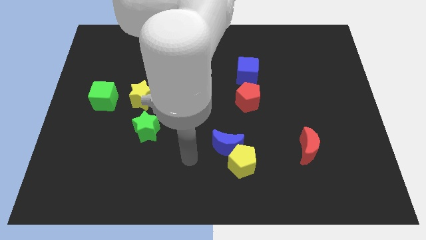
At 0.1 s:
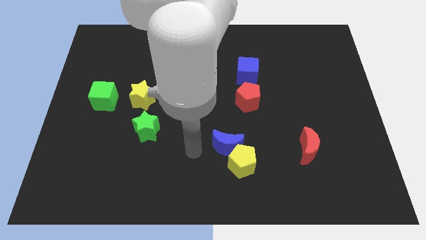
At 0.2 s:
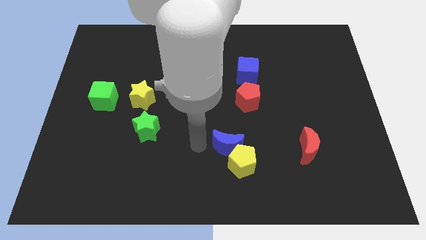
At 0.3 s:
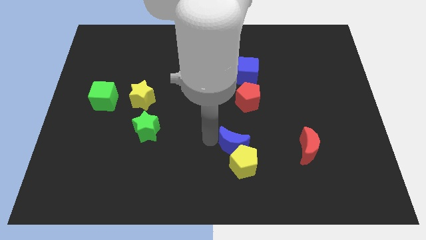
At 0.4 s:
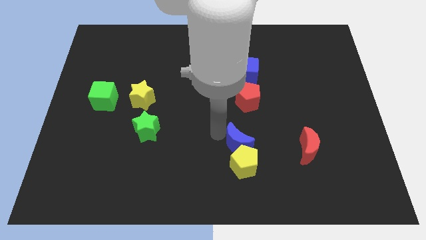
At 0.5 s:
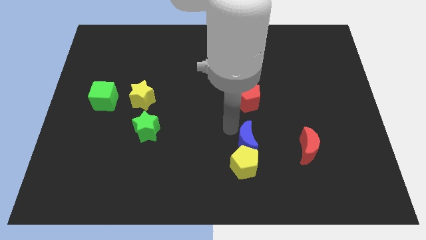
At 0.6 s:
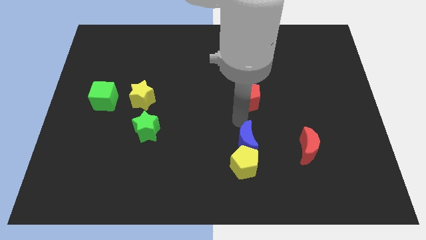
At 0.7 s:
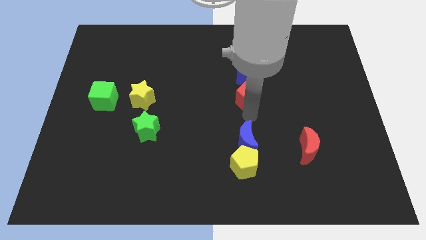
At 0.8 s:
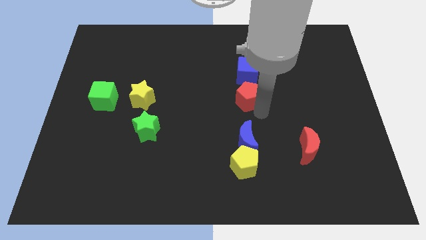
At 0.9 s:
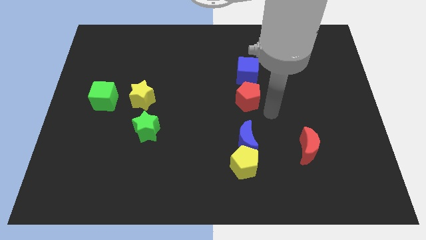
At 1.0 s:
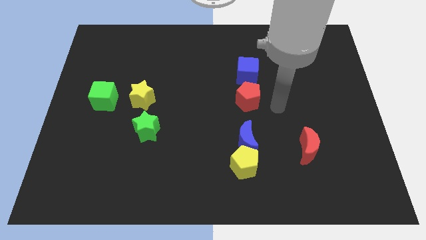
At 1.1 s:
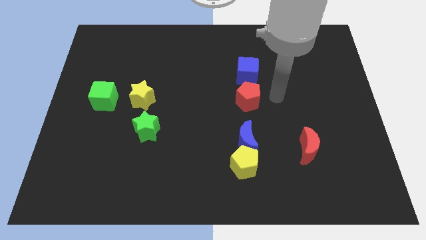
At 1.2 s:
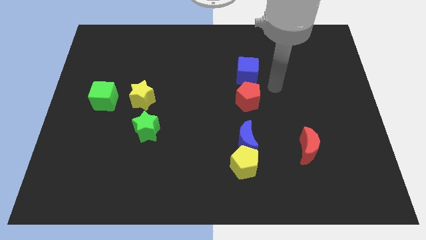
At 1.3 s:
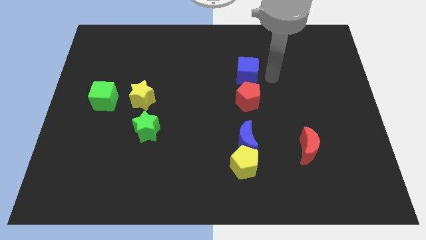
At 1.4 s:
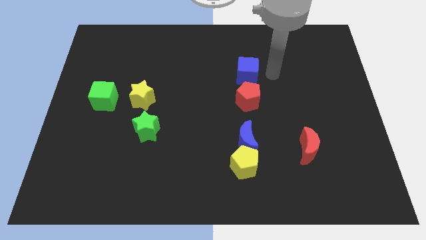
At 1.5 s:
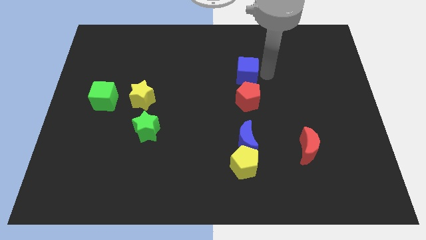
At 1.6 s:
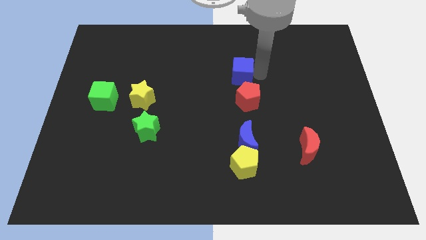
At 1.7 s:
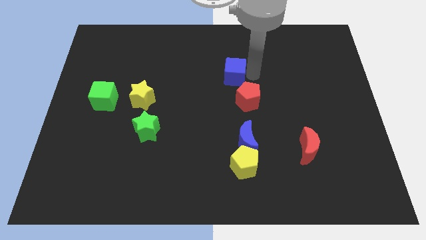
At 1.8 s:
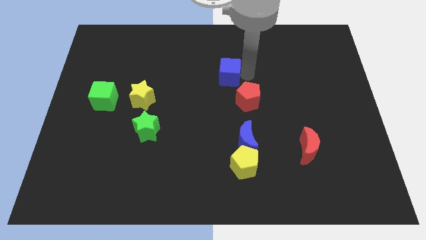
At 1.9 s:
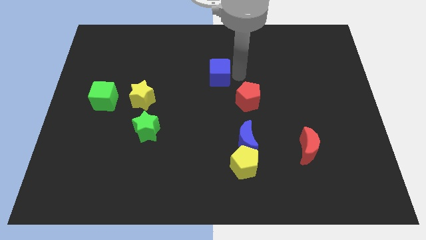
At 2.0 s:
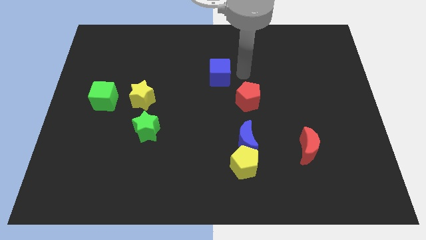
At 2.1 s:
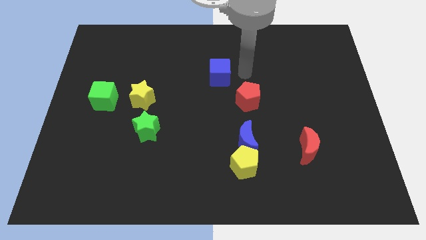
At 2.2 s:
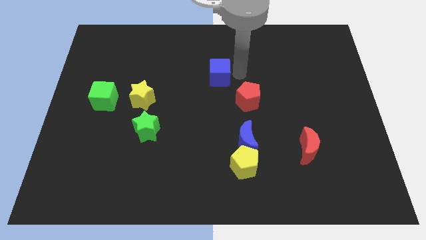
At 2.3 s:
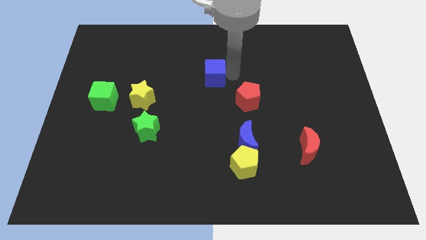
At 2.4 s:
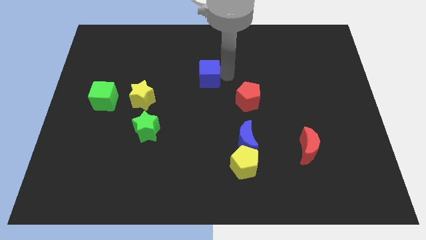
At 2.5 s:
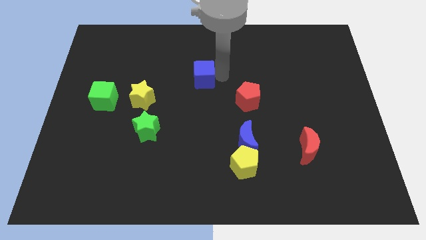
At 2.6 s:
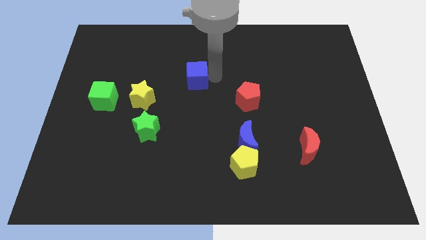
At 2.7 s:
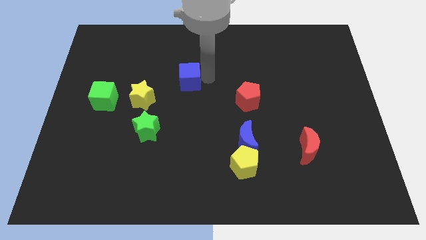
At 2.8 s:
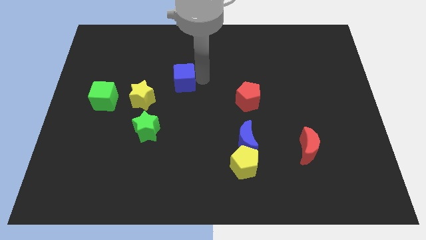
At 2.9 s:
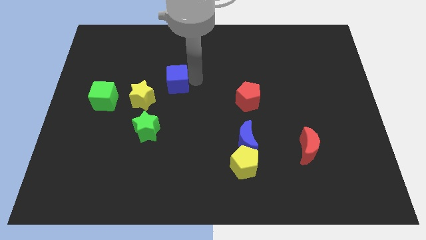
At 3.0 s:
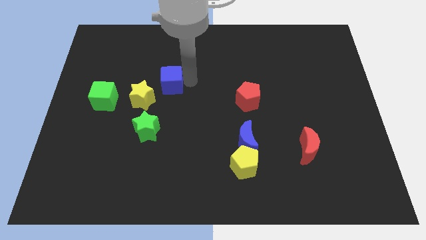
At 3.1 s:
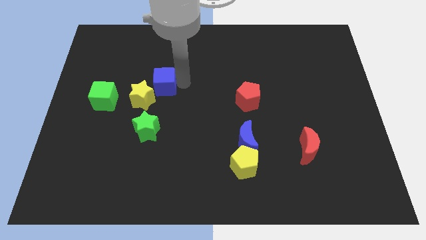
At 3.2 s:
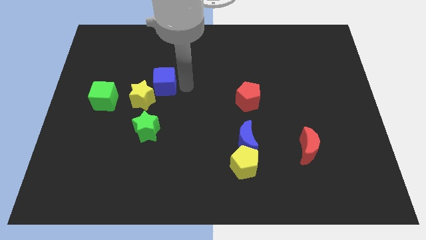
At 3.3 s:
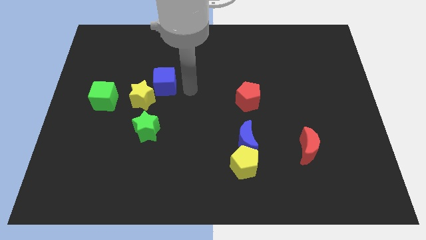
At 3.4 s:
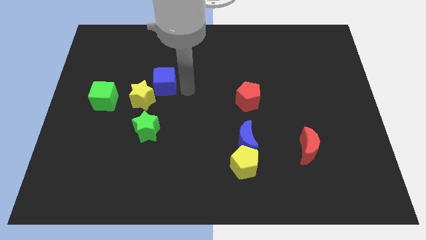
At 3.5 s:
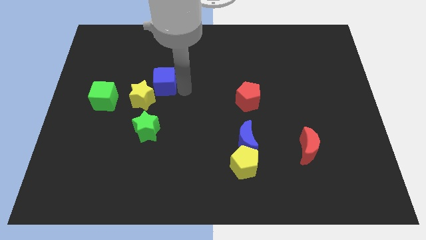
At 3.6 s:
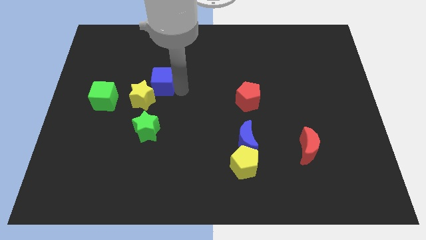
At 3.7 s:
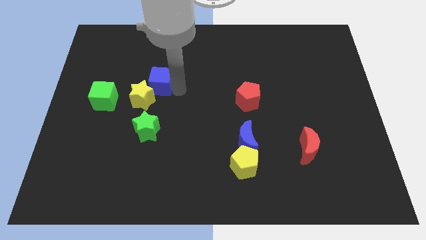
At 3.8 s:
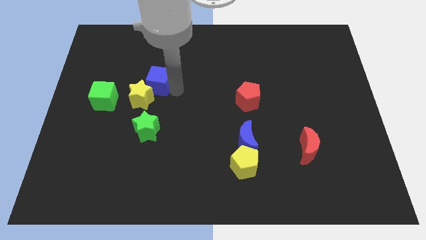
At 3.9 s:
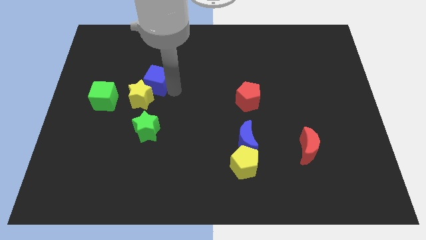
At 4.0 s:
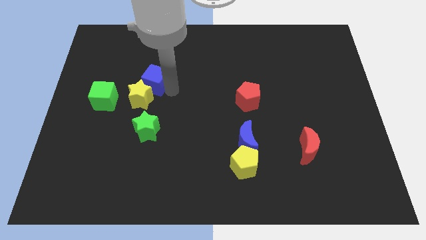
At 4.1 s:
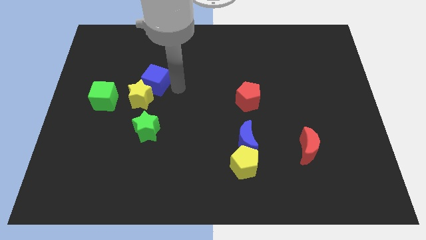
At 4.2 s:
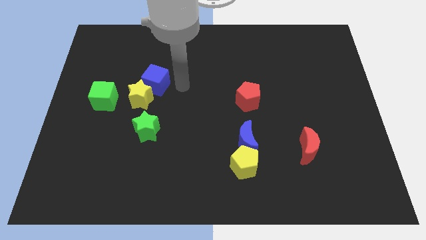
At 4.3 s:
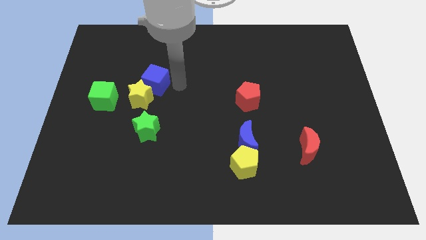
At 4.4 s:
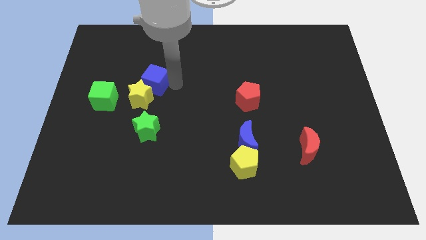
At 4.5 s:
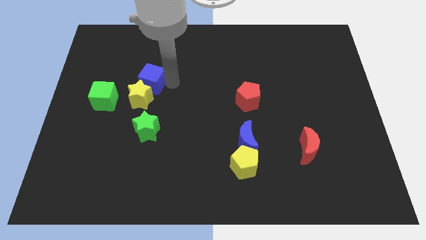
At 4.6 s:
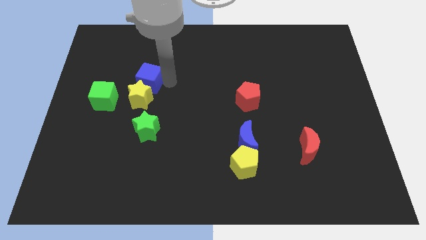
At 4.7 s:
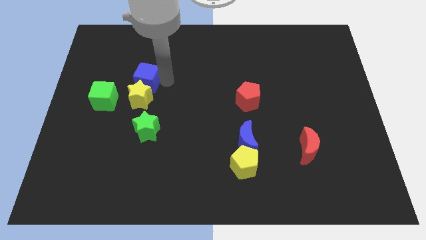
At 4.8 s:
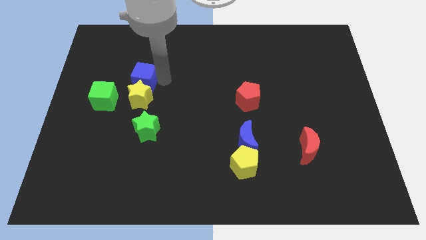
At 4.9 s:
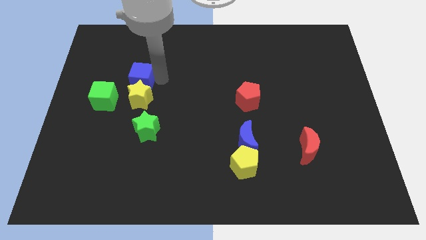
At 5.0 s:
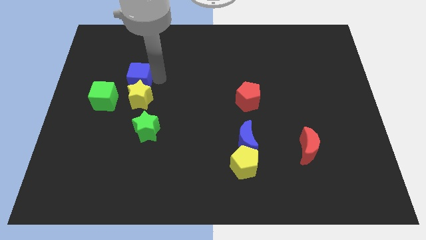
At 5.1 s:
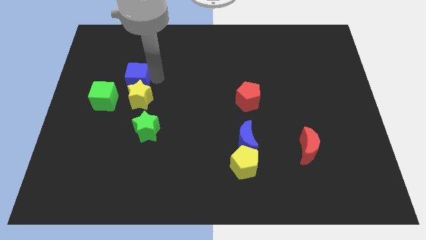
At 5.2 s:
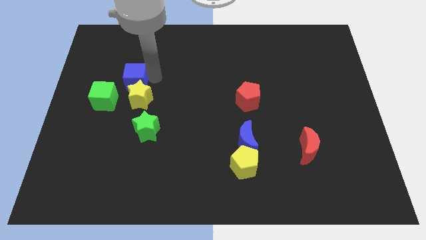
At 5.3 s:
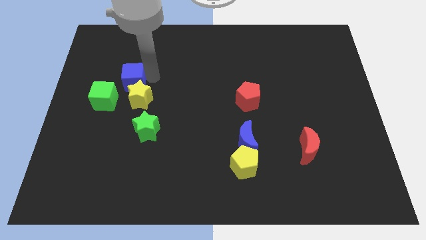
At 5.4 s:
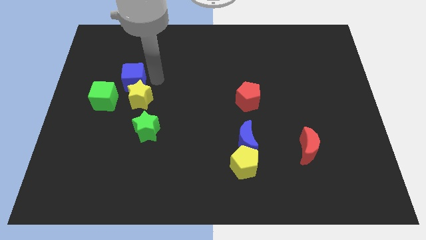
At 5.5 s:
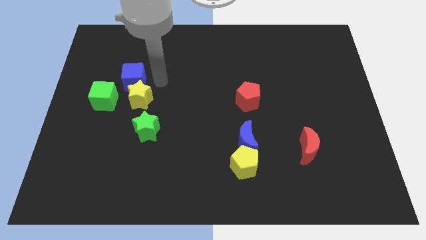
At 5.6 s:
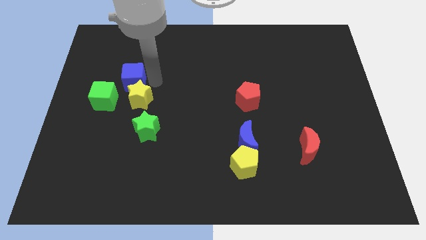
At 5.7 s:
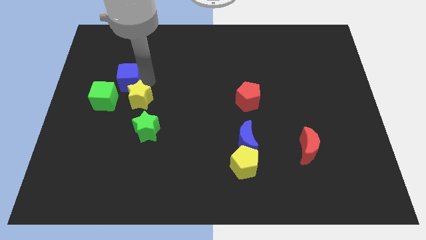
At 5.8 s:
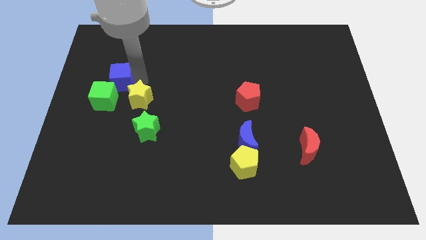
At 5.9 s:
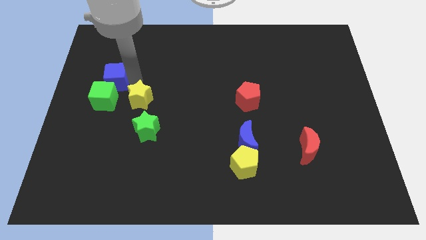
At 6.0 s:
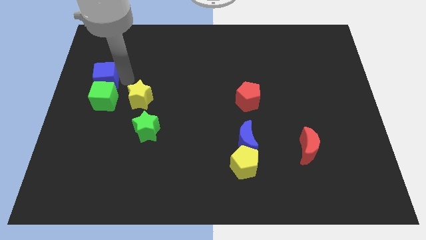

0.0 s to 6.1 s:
put the blue cube to the left side of the board
